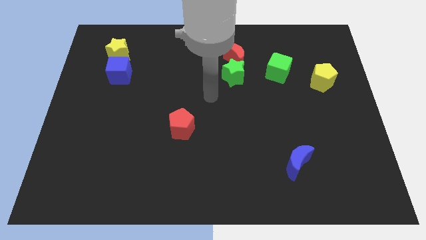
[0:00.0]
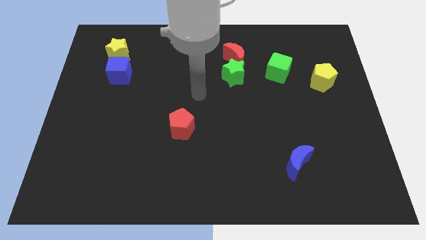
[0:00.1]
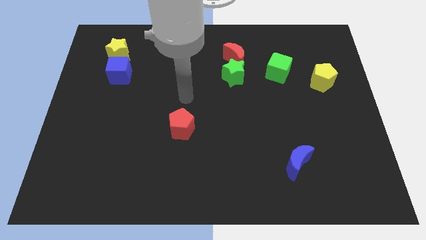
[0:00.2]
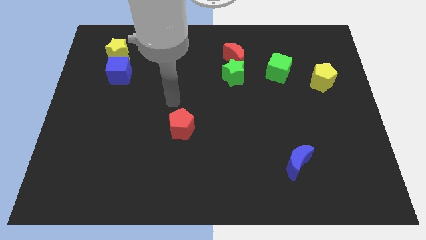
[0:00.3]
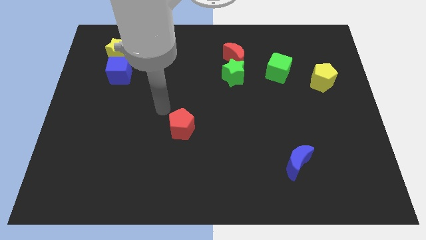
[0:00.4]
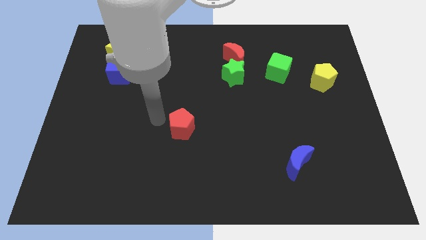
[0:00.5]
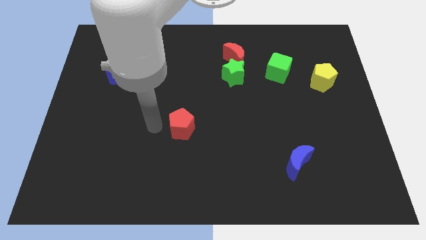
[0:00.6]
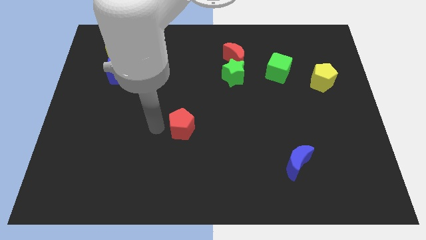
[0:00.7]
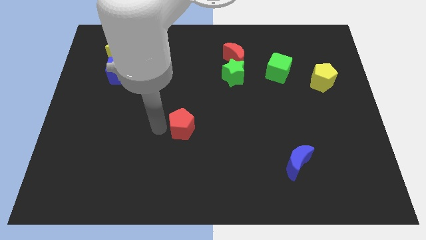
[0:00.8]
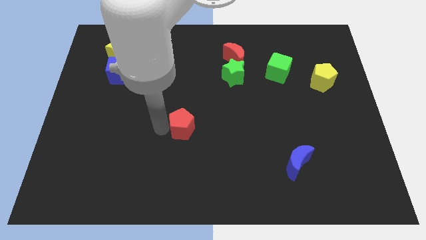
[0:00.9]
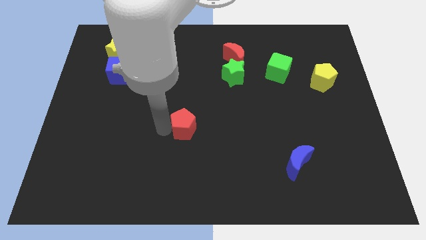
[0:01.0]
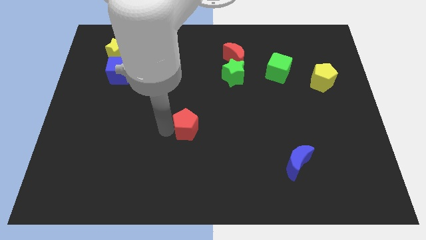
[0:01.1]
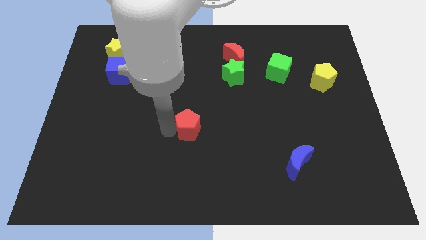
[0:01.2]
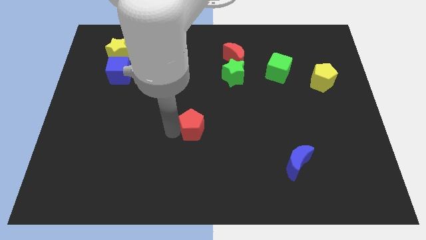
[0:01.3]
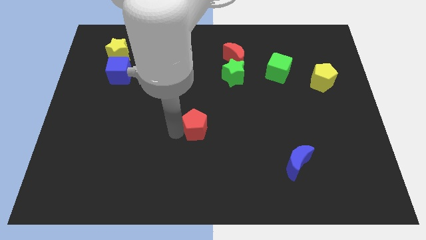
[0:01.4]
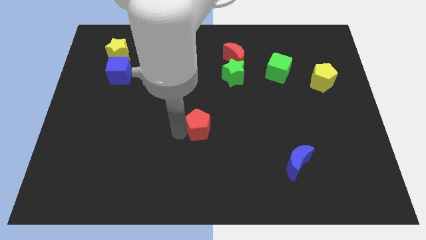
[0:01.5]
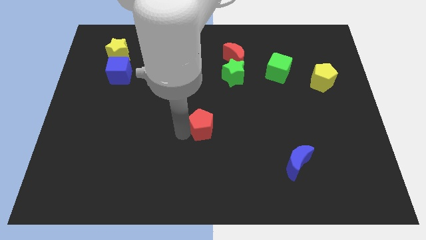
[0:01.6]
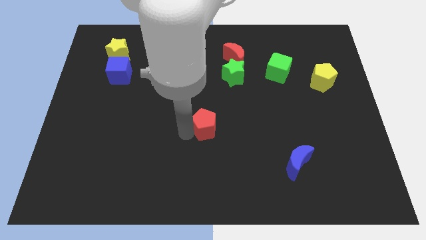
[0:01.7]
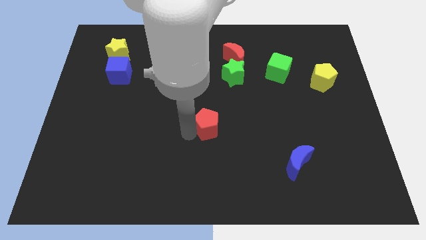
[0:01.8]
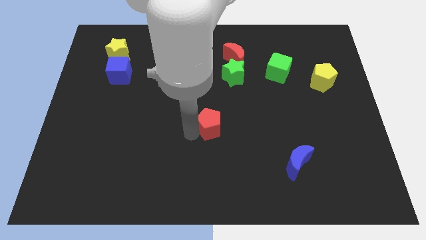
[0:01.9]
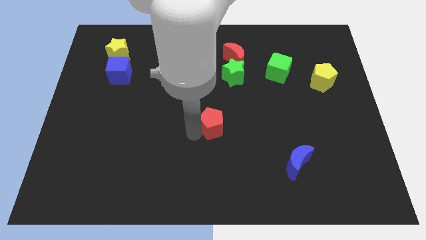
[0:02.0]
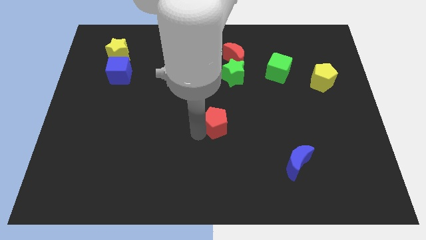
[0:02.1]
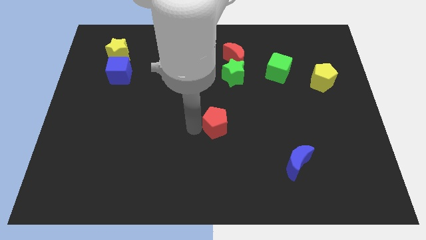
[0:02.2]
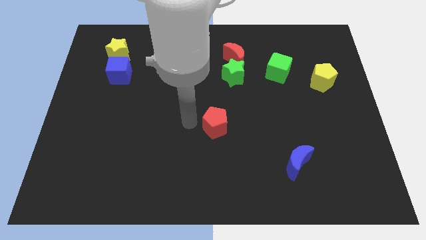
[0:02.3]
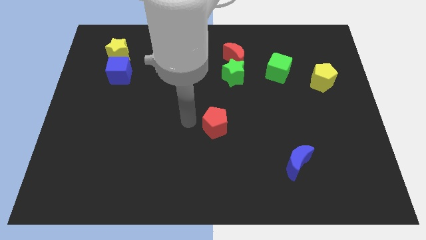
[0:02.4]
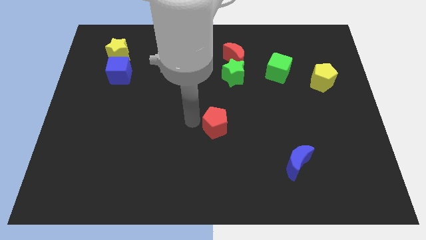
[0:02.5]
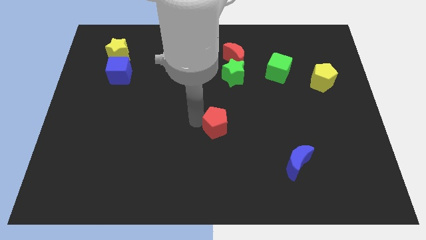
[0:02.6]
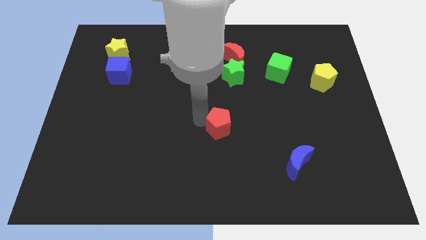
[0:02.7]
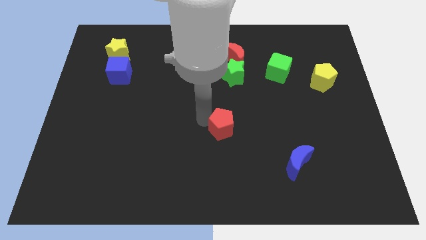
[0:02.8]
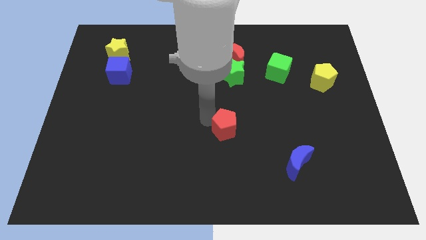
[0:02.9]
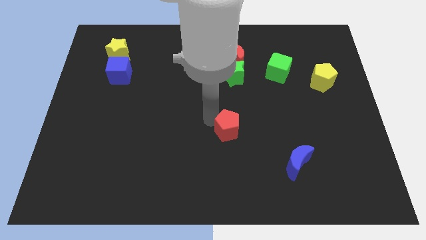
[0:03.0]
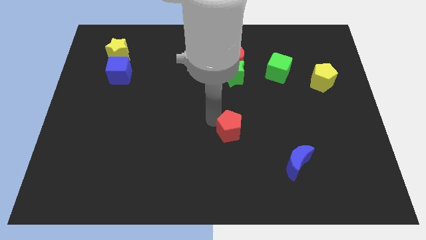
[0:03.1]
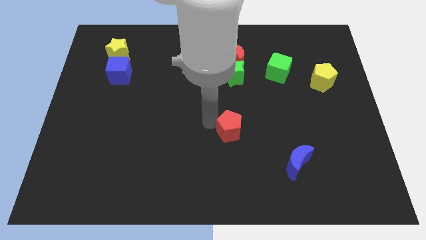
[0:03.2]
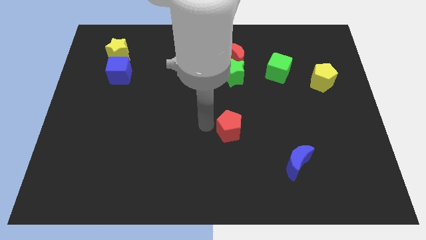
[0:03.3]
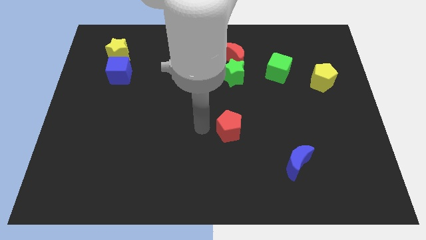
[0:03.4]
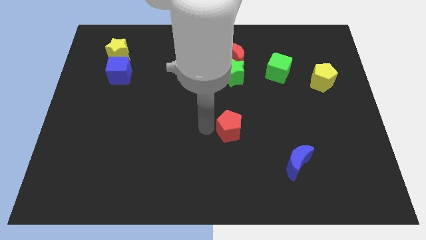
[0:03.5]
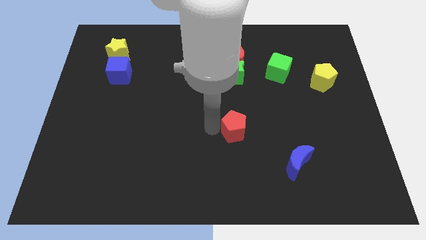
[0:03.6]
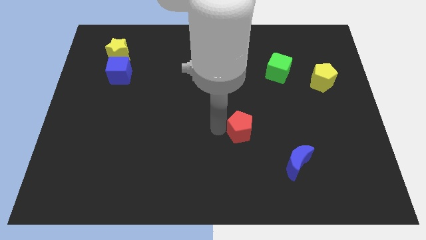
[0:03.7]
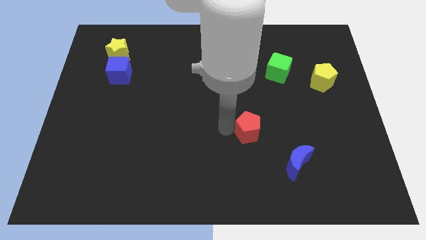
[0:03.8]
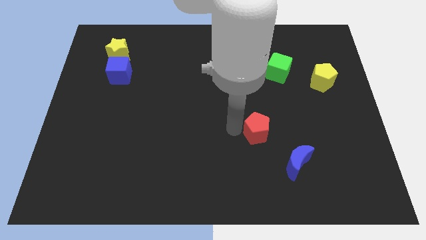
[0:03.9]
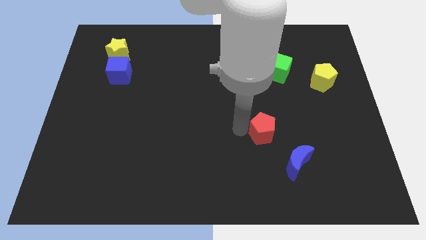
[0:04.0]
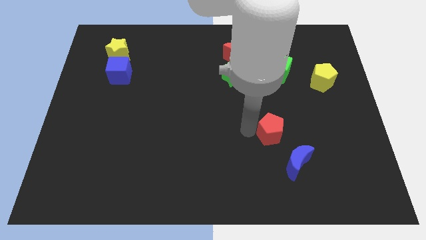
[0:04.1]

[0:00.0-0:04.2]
move the red pentagon right

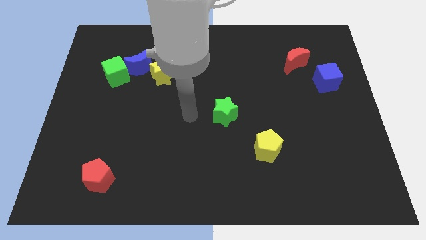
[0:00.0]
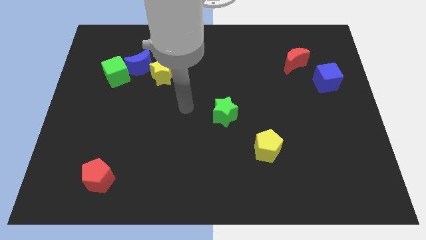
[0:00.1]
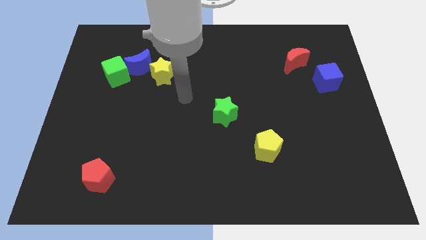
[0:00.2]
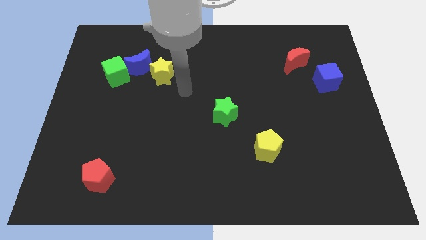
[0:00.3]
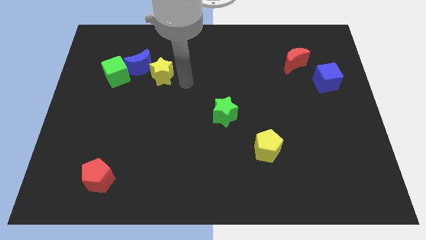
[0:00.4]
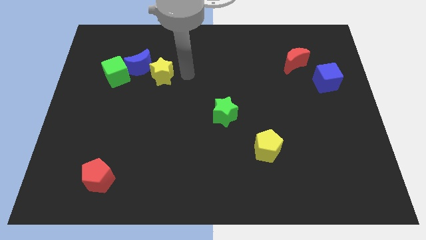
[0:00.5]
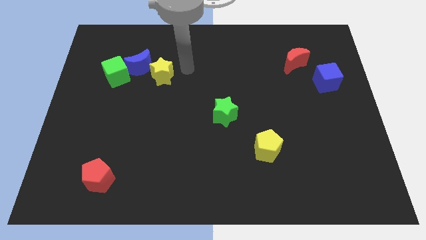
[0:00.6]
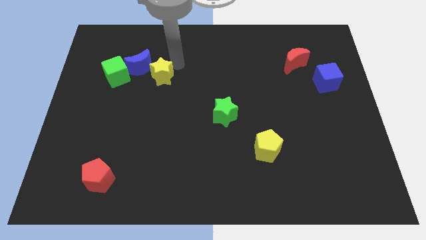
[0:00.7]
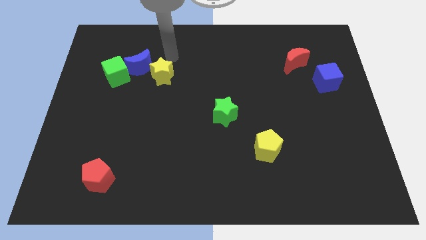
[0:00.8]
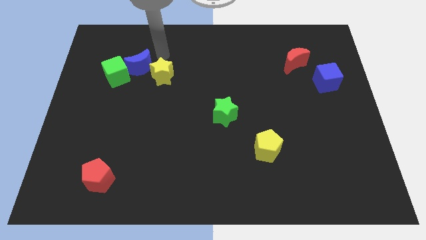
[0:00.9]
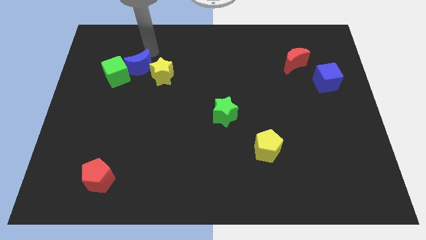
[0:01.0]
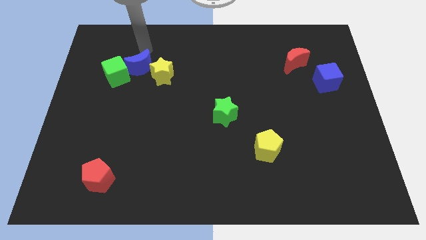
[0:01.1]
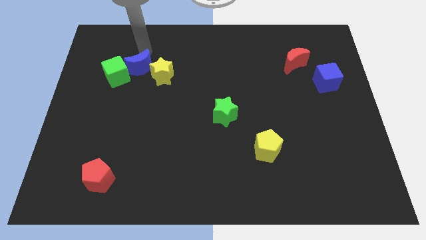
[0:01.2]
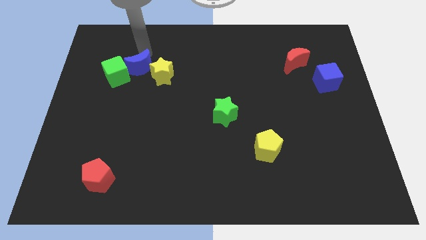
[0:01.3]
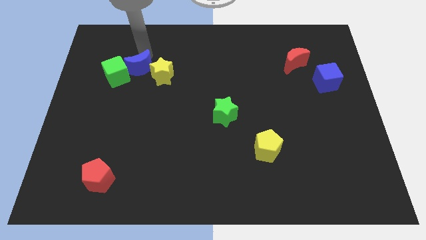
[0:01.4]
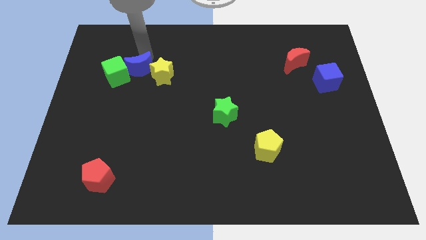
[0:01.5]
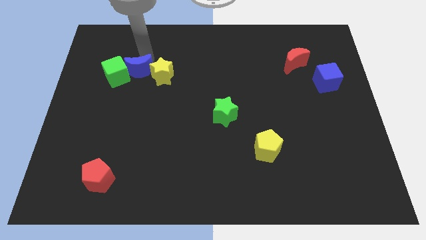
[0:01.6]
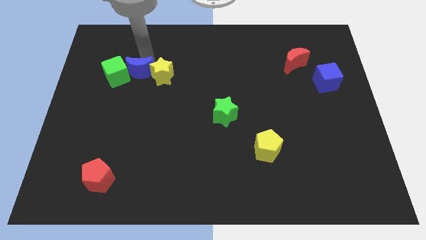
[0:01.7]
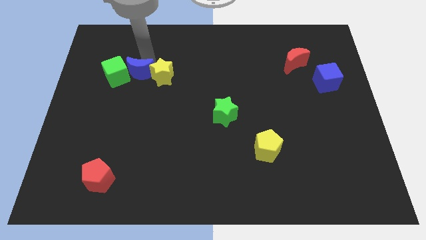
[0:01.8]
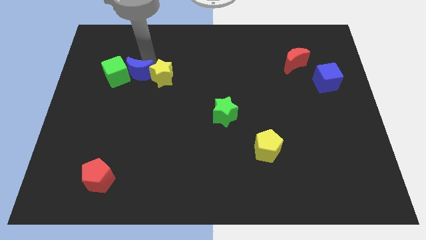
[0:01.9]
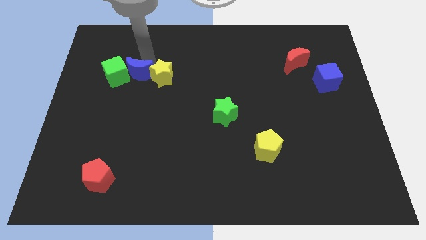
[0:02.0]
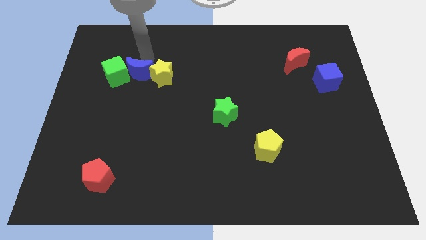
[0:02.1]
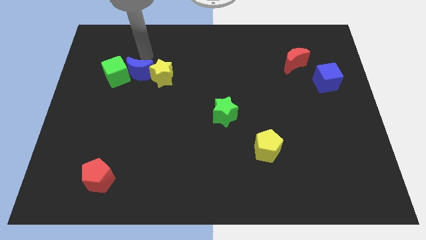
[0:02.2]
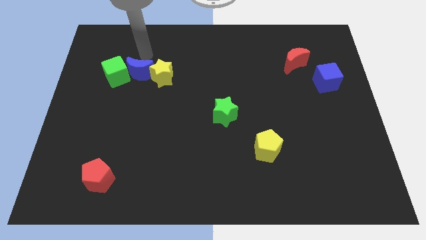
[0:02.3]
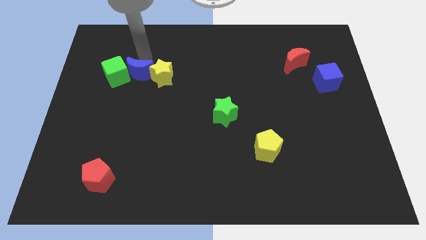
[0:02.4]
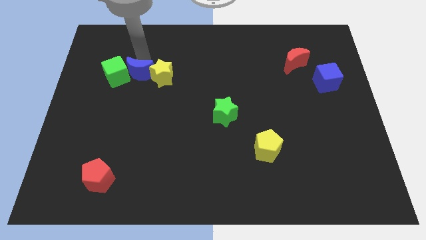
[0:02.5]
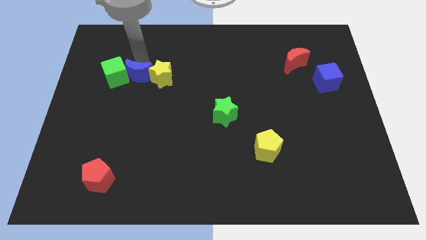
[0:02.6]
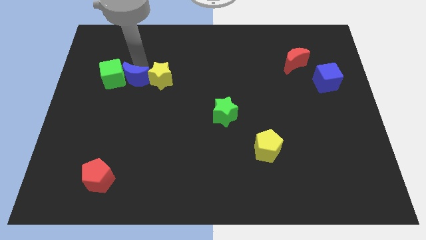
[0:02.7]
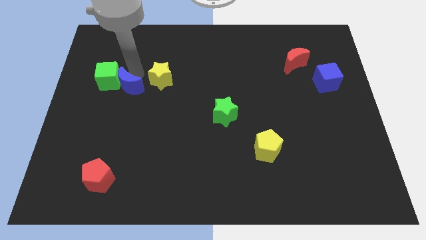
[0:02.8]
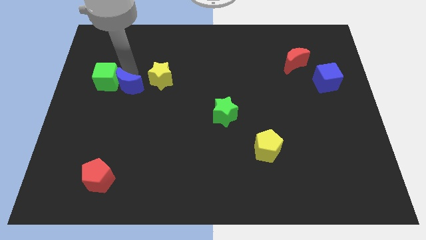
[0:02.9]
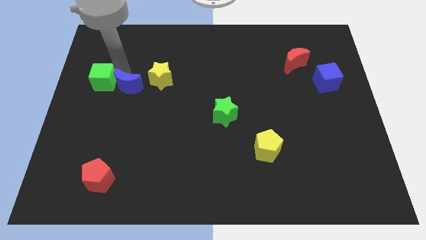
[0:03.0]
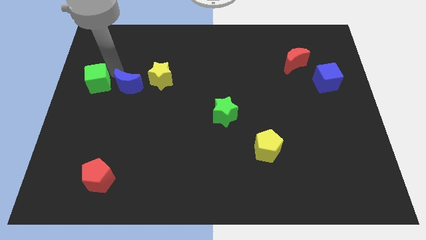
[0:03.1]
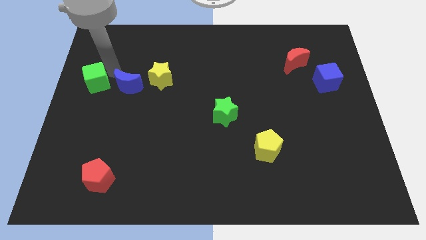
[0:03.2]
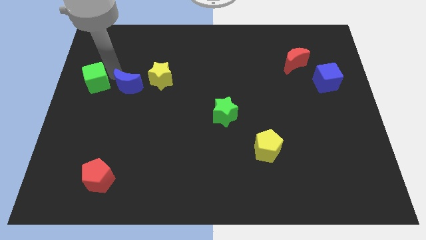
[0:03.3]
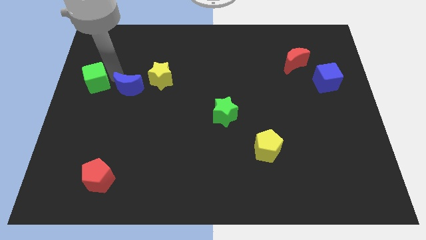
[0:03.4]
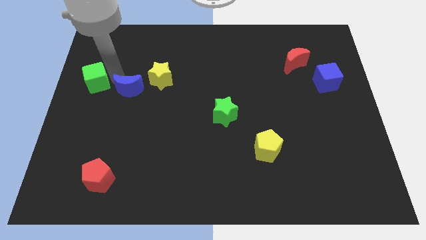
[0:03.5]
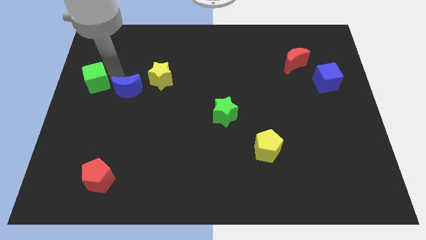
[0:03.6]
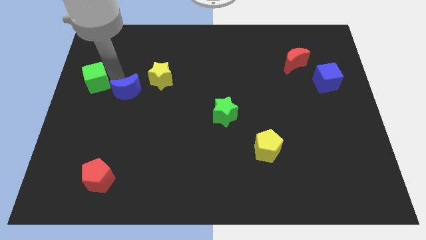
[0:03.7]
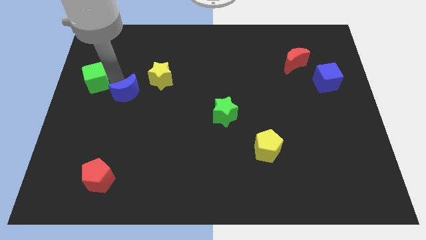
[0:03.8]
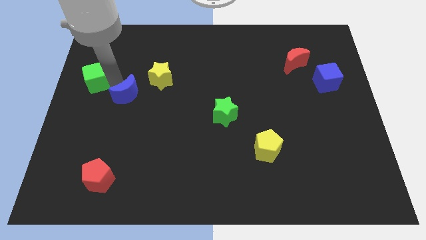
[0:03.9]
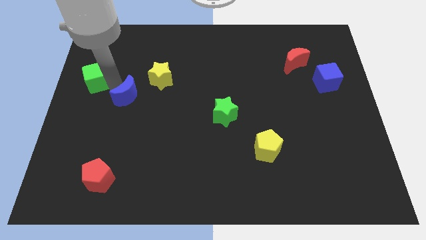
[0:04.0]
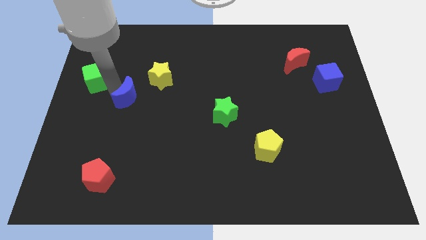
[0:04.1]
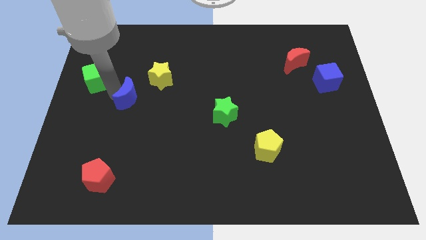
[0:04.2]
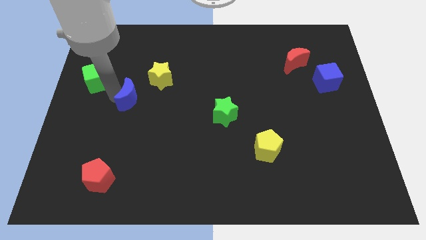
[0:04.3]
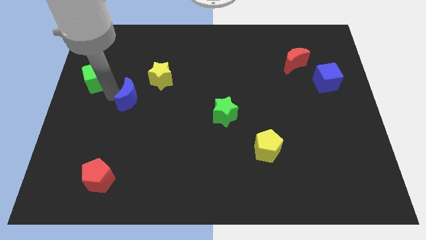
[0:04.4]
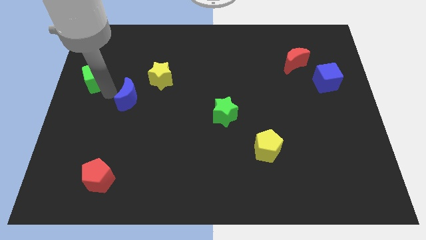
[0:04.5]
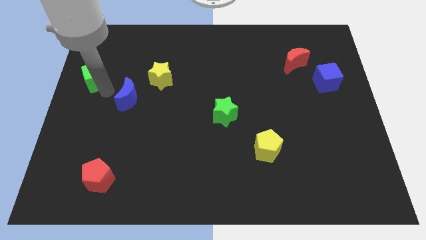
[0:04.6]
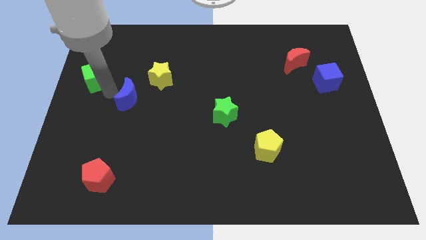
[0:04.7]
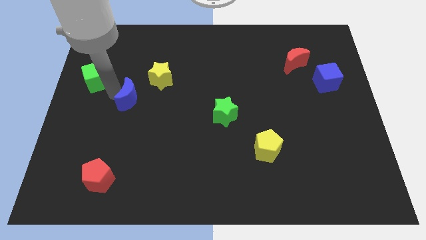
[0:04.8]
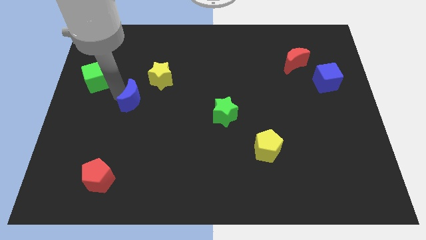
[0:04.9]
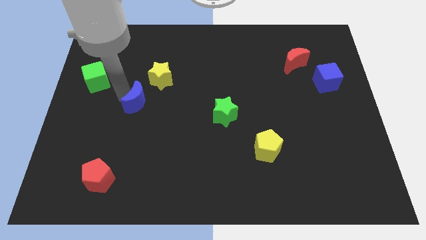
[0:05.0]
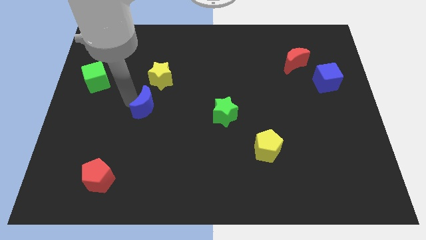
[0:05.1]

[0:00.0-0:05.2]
push the blue moon somewhat downwards and then to the right
